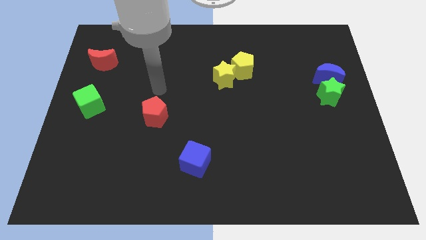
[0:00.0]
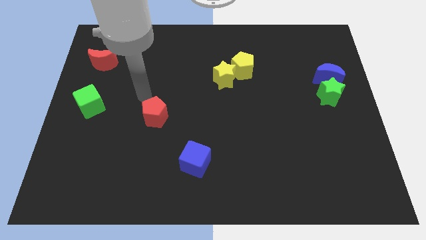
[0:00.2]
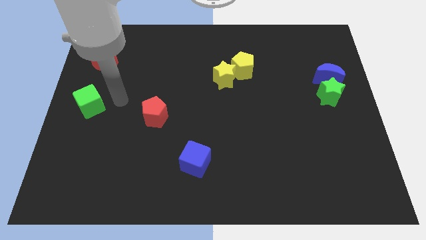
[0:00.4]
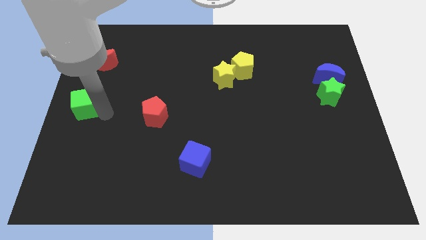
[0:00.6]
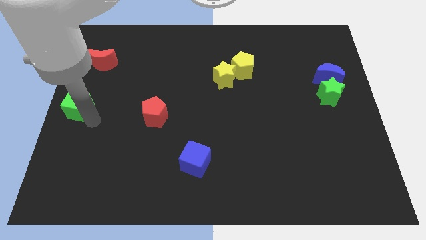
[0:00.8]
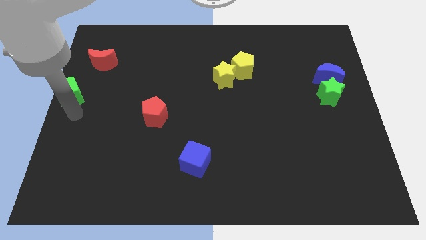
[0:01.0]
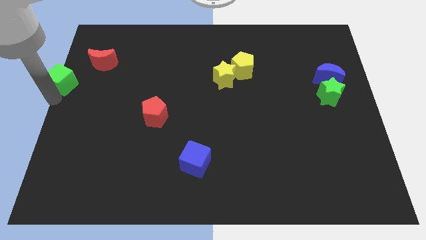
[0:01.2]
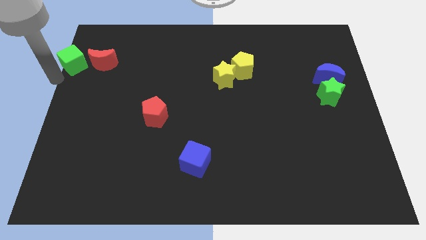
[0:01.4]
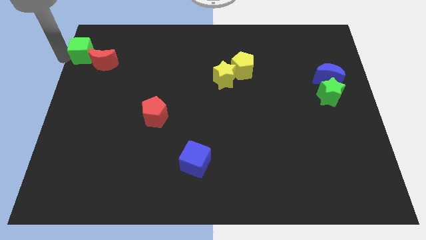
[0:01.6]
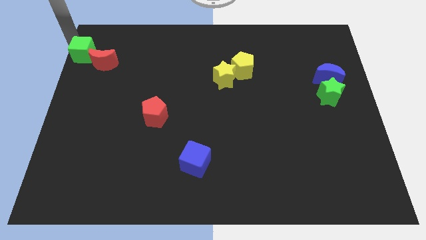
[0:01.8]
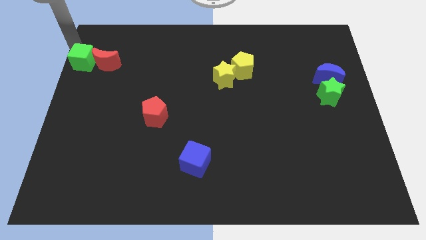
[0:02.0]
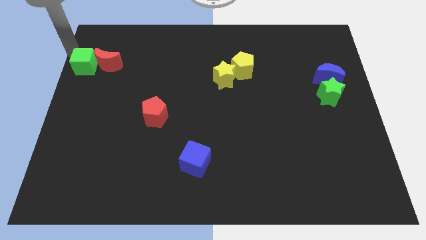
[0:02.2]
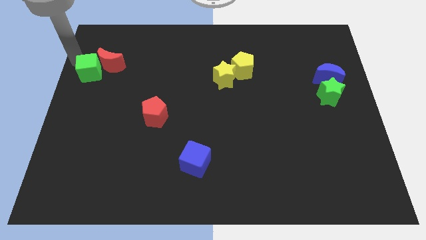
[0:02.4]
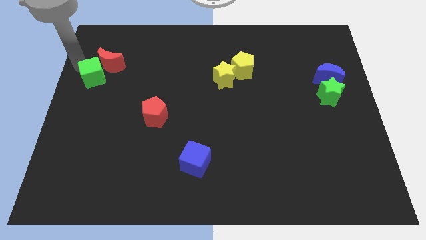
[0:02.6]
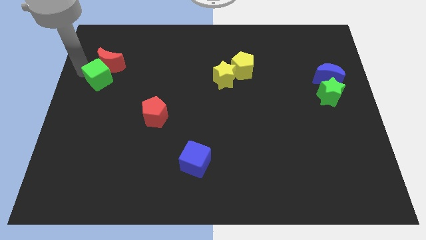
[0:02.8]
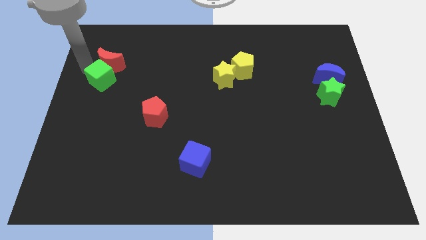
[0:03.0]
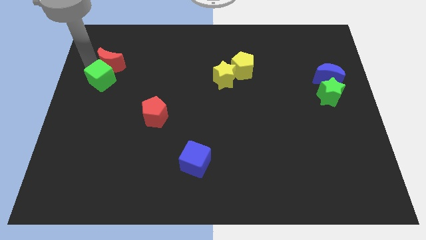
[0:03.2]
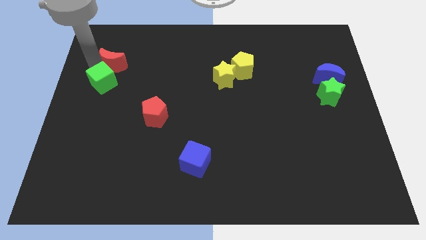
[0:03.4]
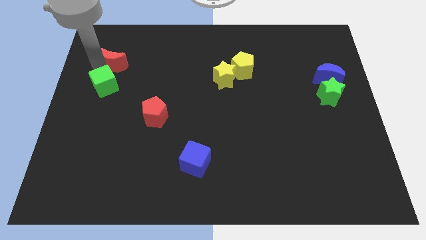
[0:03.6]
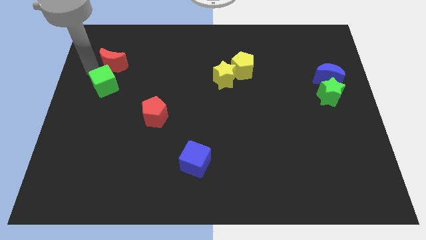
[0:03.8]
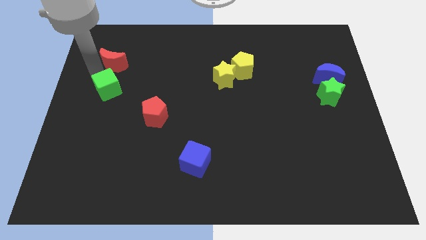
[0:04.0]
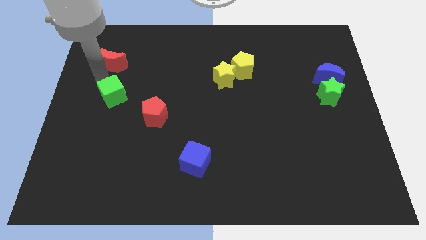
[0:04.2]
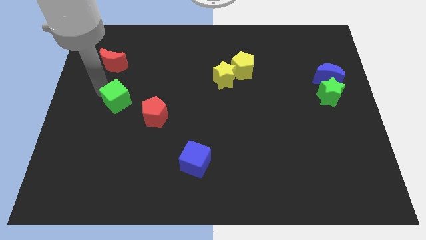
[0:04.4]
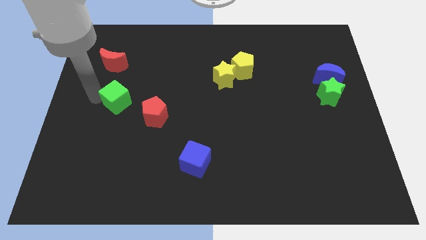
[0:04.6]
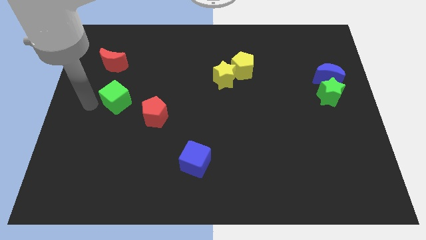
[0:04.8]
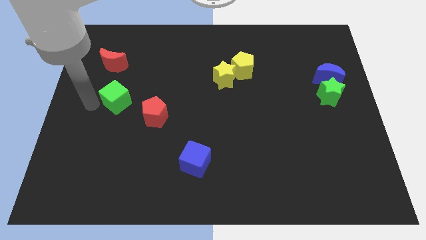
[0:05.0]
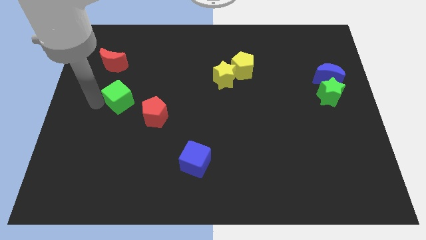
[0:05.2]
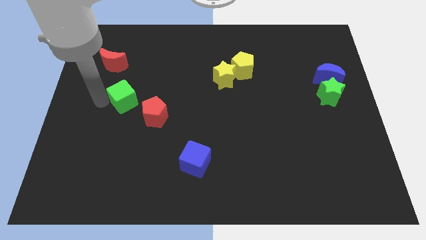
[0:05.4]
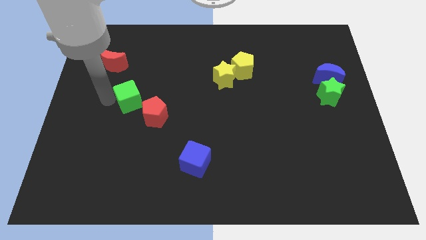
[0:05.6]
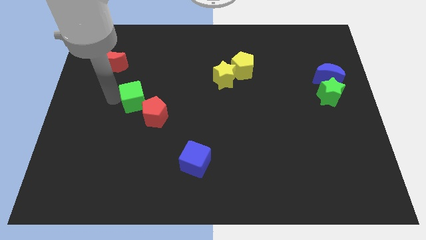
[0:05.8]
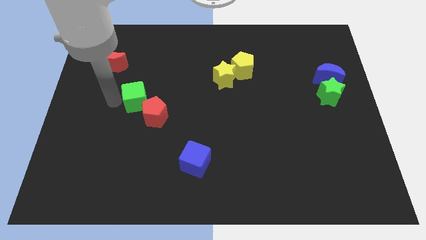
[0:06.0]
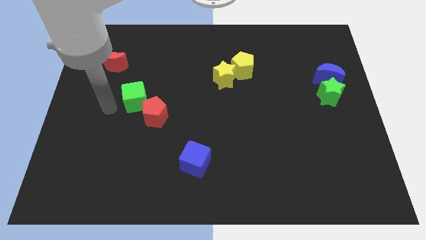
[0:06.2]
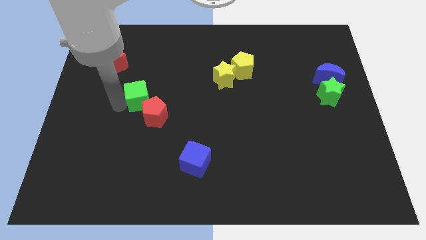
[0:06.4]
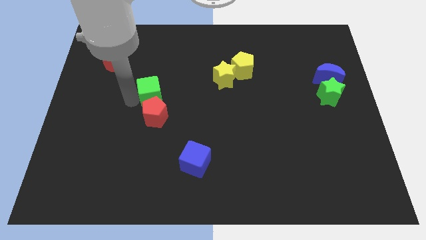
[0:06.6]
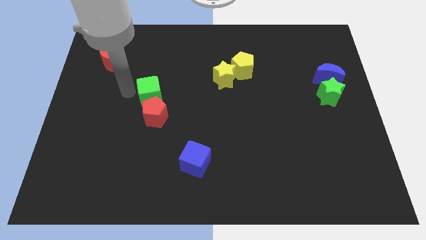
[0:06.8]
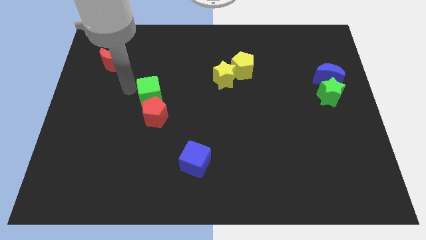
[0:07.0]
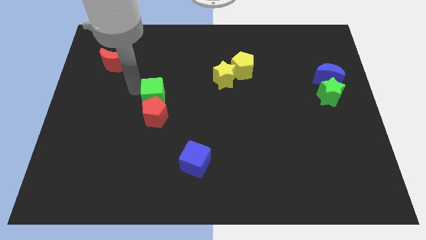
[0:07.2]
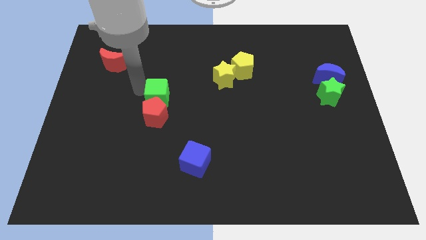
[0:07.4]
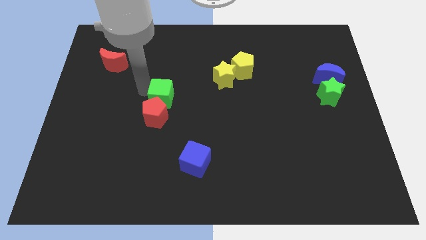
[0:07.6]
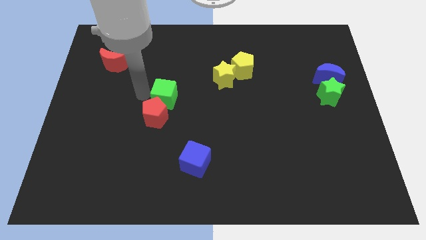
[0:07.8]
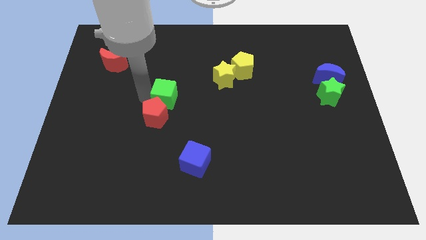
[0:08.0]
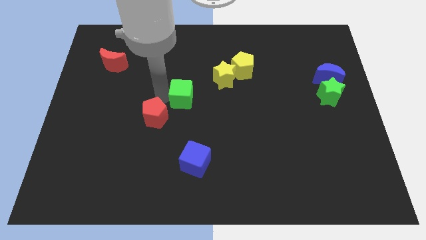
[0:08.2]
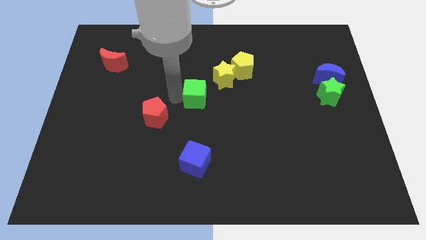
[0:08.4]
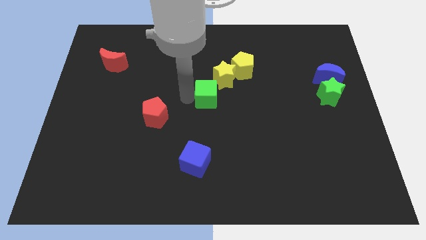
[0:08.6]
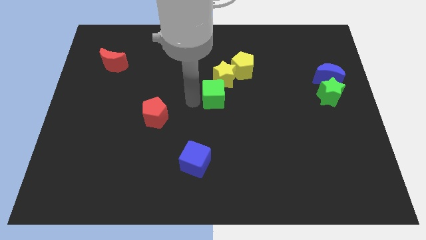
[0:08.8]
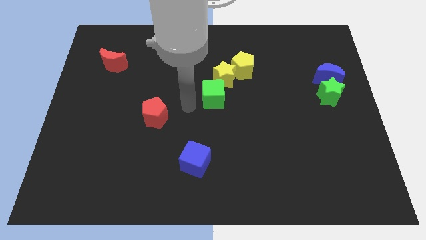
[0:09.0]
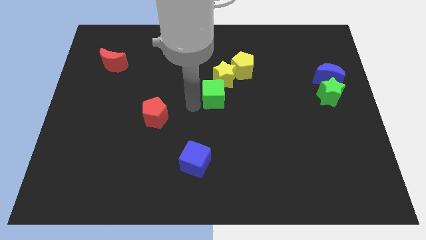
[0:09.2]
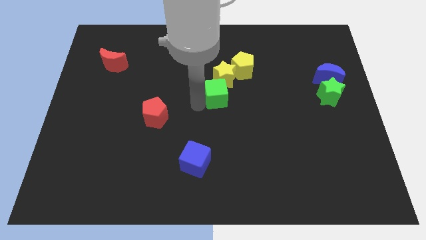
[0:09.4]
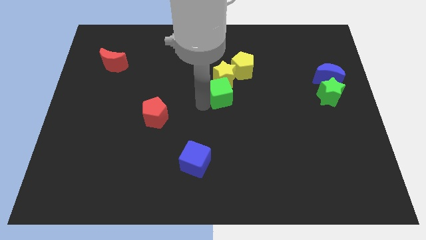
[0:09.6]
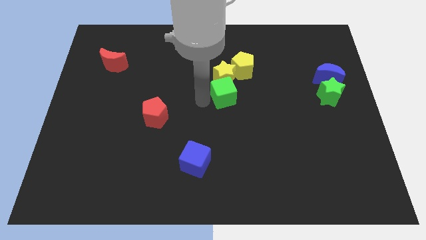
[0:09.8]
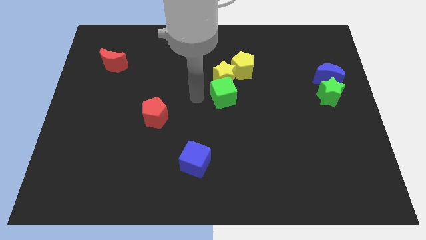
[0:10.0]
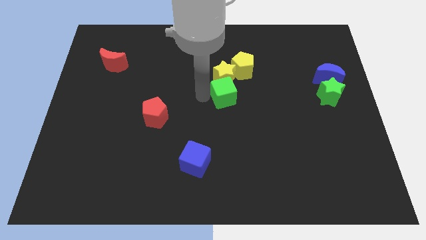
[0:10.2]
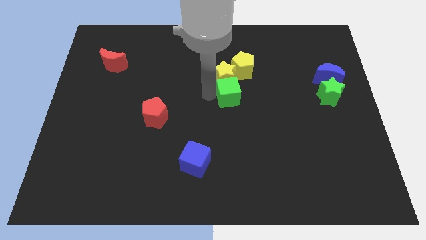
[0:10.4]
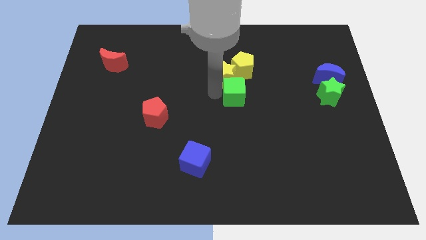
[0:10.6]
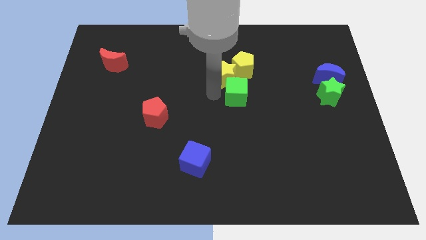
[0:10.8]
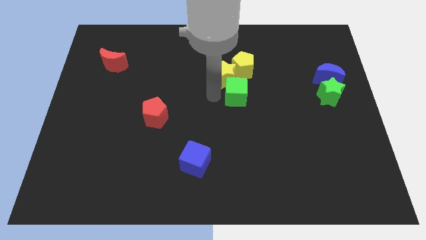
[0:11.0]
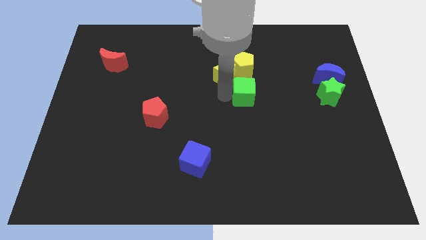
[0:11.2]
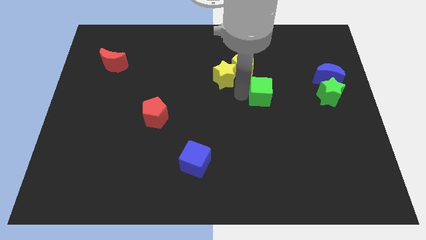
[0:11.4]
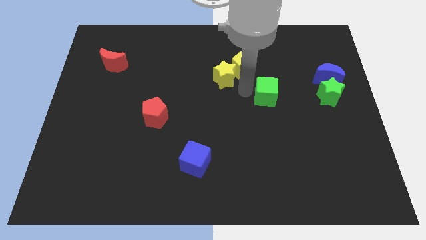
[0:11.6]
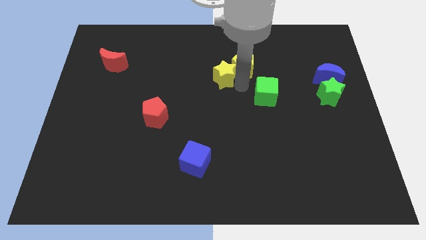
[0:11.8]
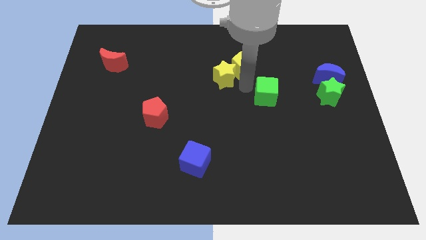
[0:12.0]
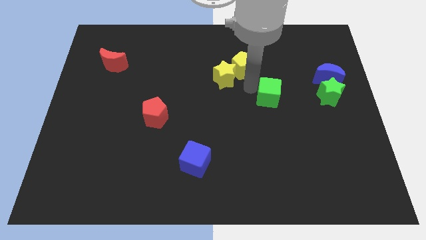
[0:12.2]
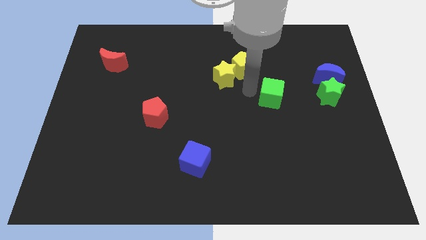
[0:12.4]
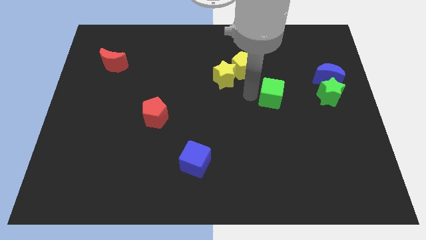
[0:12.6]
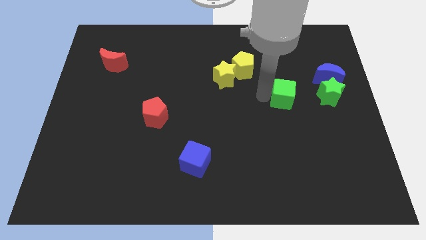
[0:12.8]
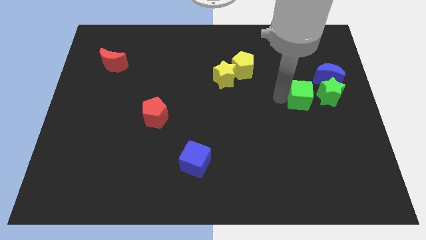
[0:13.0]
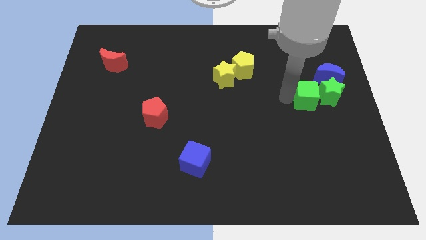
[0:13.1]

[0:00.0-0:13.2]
slide the green cube towards the green star
